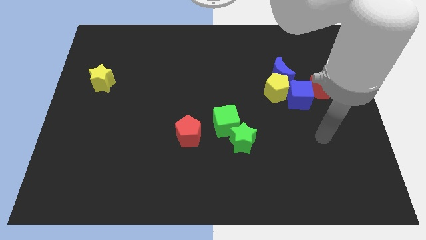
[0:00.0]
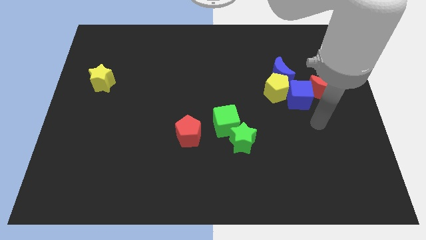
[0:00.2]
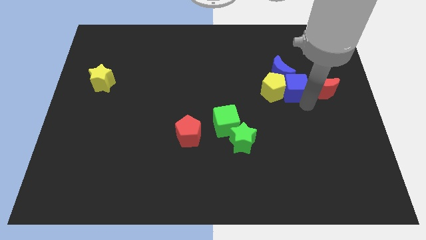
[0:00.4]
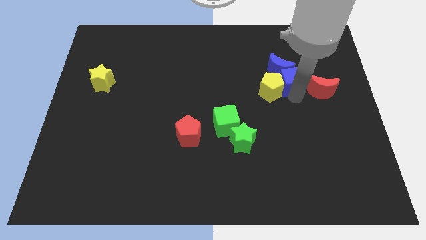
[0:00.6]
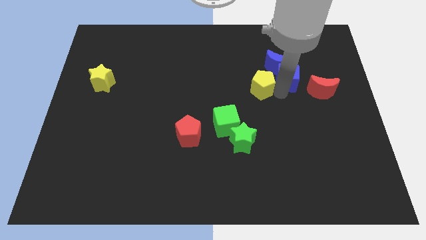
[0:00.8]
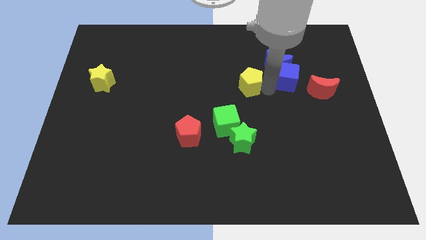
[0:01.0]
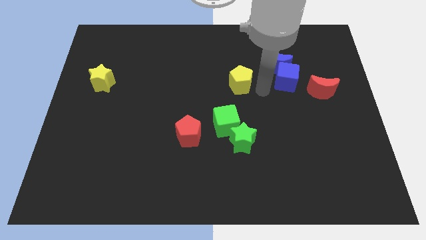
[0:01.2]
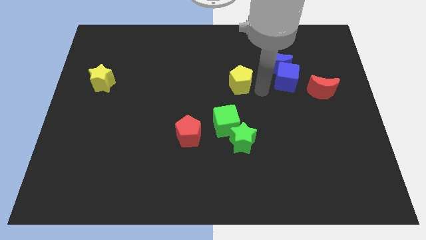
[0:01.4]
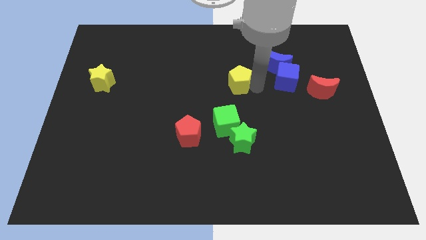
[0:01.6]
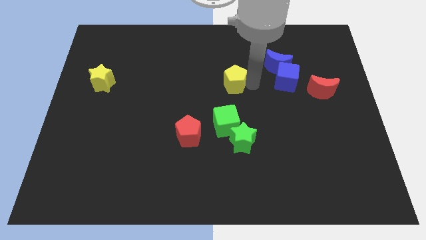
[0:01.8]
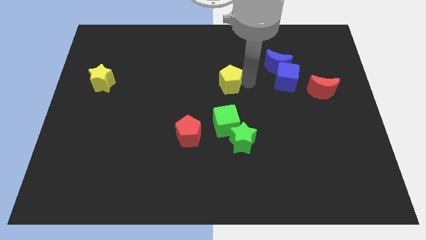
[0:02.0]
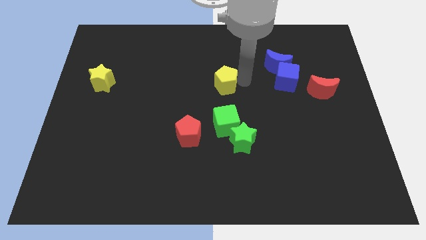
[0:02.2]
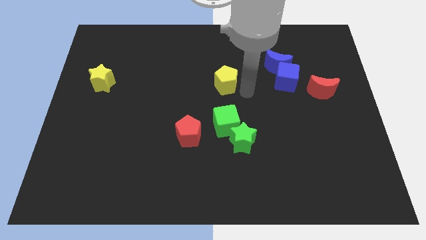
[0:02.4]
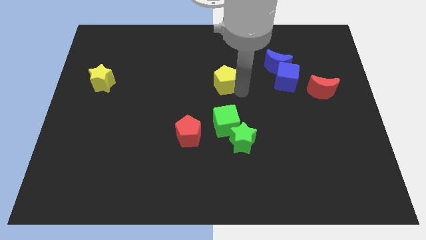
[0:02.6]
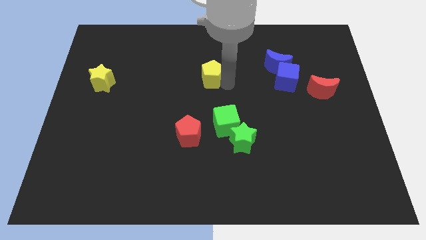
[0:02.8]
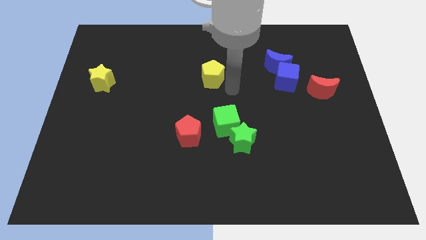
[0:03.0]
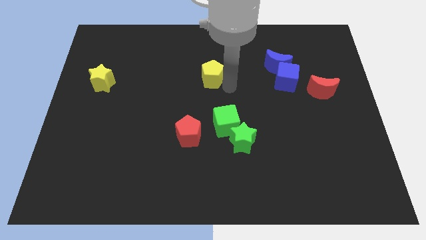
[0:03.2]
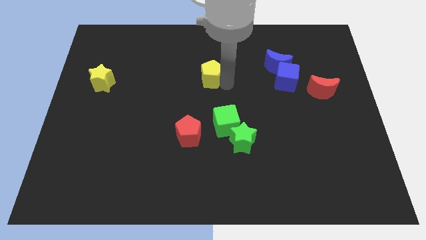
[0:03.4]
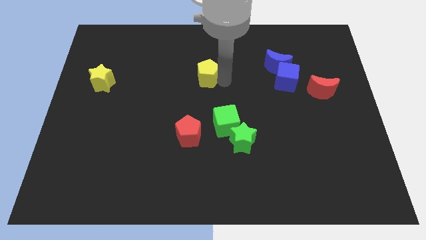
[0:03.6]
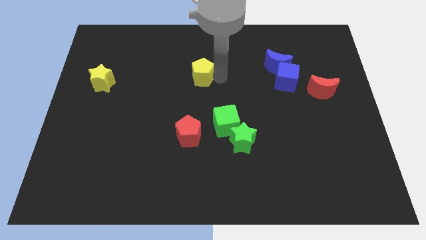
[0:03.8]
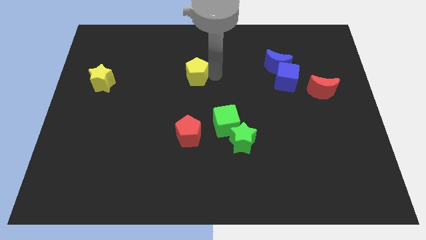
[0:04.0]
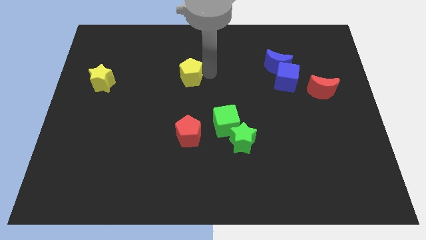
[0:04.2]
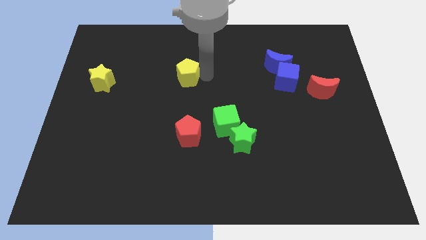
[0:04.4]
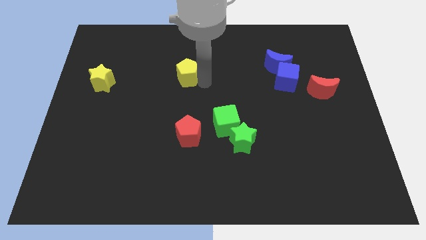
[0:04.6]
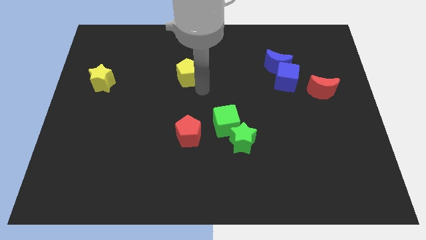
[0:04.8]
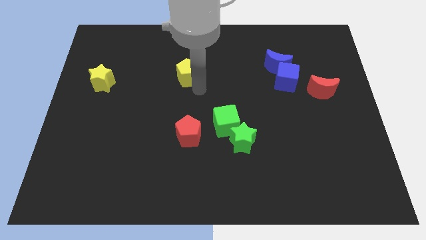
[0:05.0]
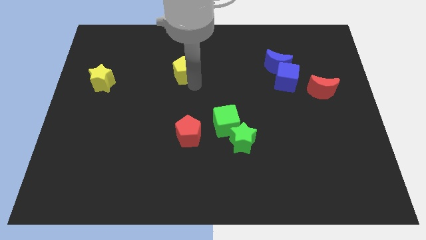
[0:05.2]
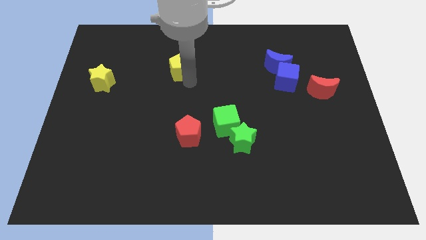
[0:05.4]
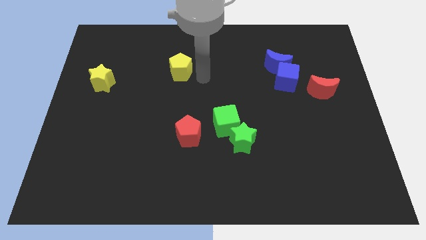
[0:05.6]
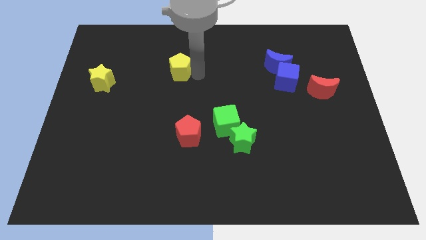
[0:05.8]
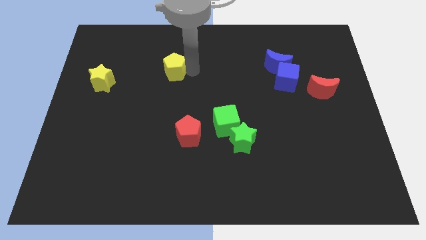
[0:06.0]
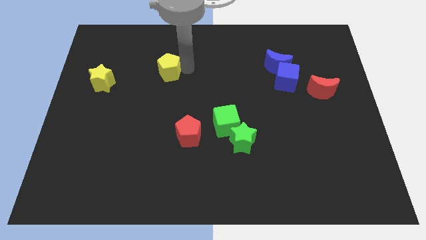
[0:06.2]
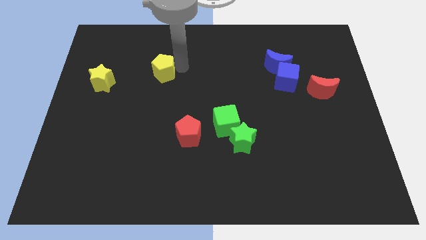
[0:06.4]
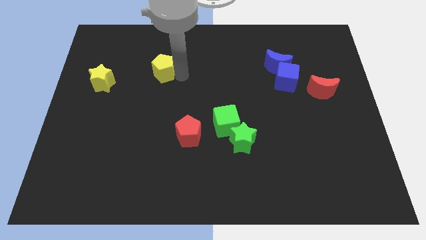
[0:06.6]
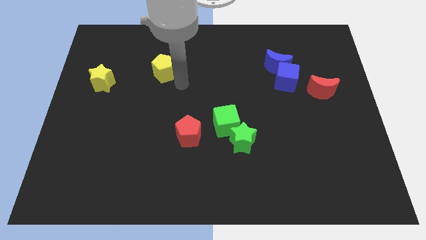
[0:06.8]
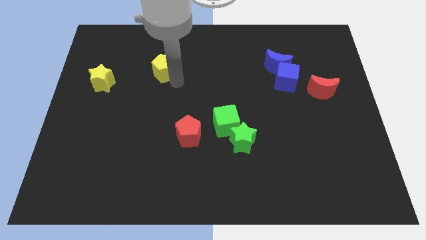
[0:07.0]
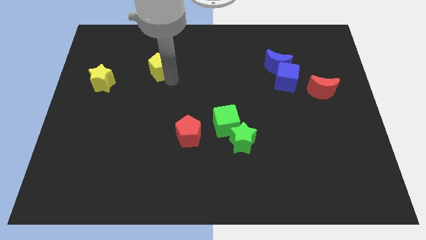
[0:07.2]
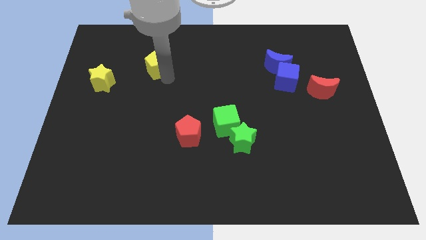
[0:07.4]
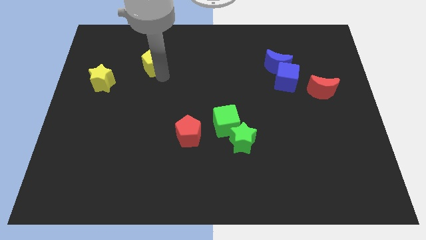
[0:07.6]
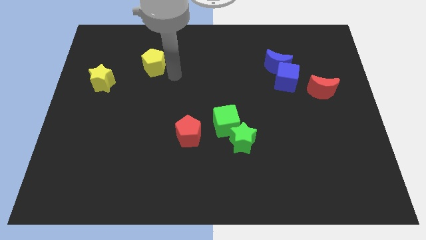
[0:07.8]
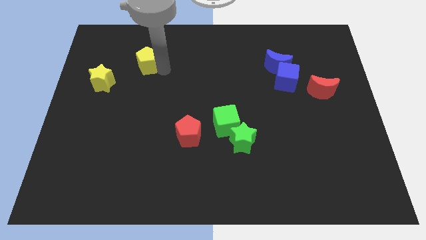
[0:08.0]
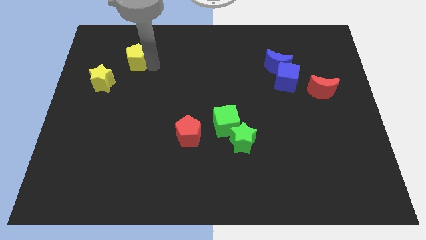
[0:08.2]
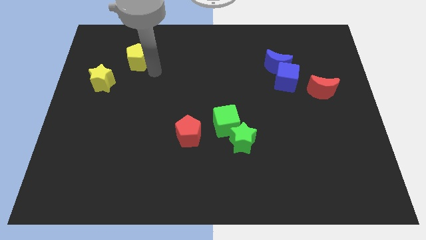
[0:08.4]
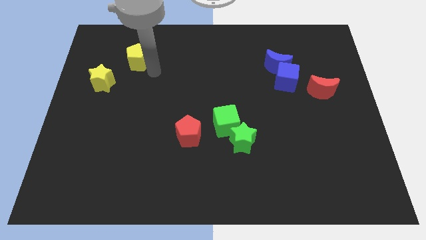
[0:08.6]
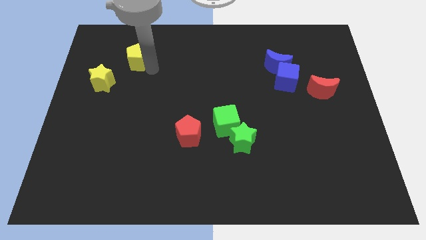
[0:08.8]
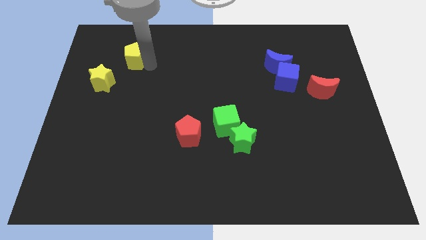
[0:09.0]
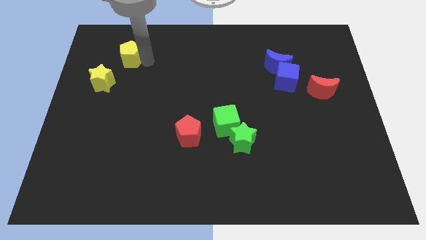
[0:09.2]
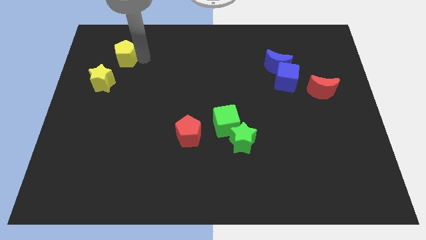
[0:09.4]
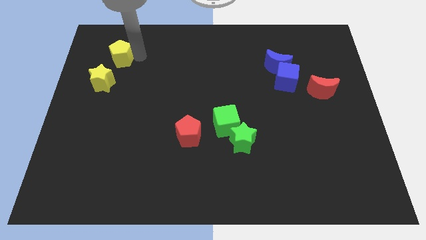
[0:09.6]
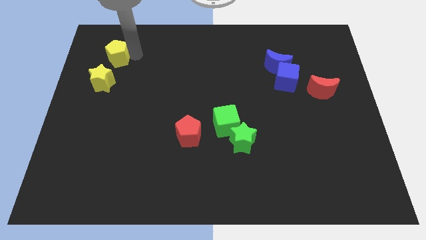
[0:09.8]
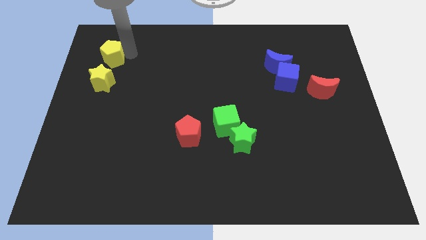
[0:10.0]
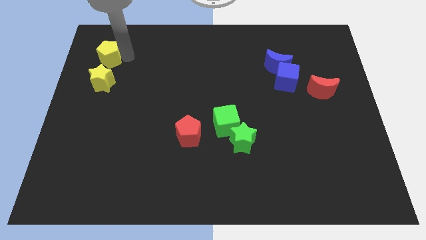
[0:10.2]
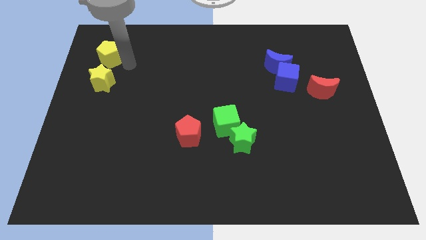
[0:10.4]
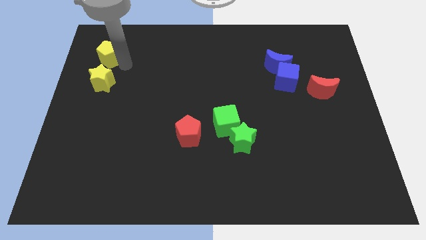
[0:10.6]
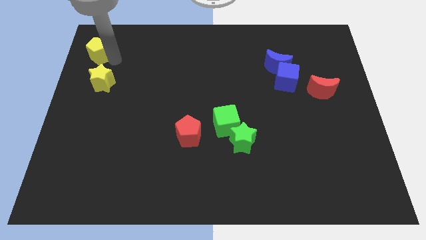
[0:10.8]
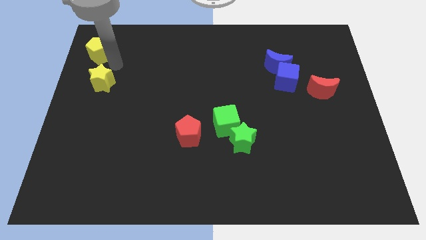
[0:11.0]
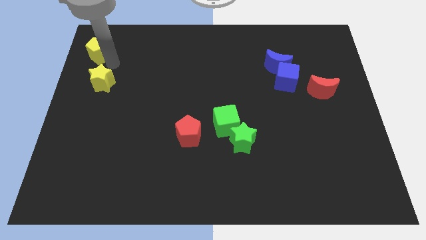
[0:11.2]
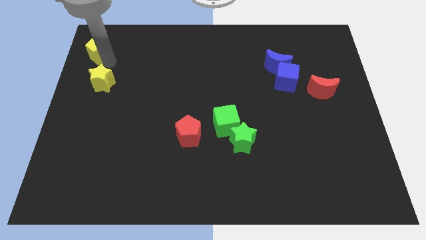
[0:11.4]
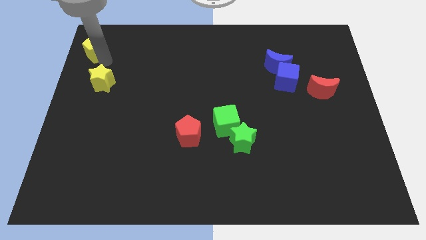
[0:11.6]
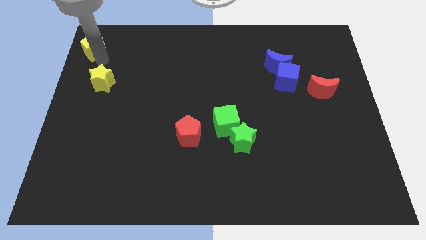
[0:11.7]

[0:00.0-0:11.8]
slide the yellow pentagon to the top left corner
